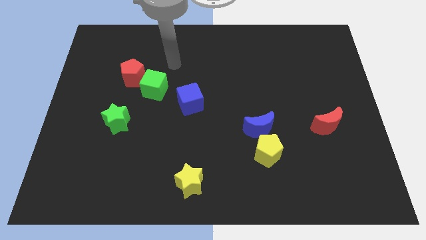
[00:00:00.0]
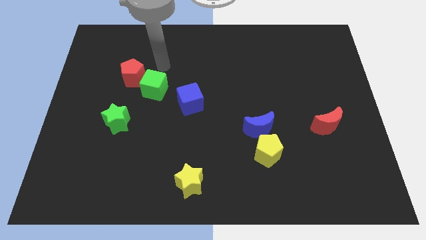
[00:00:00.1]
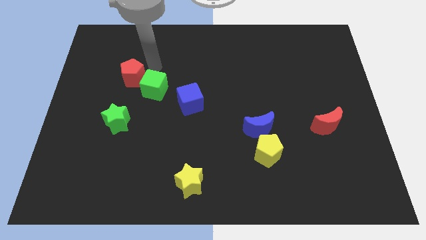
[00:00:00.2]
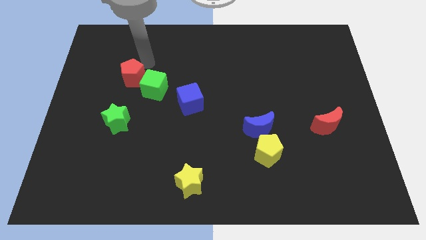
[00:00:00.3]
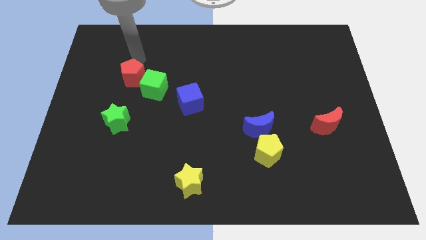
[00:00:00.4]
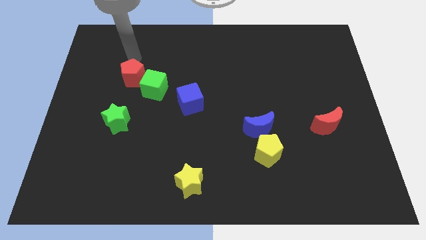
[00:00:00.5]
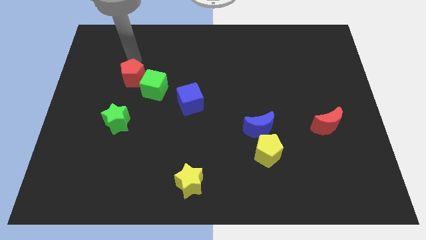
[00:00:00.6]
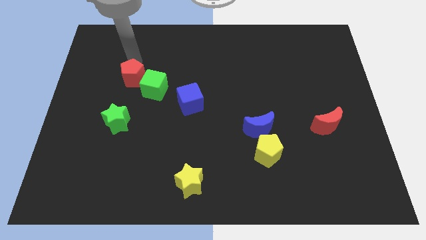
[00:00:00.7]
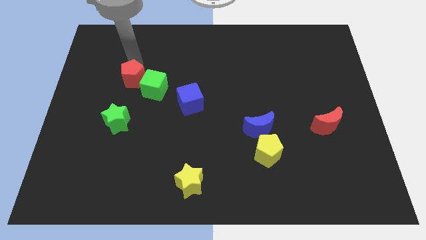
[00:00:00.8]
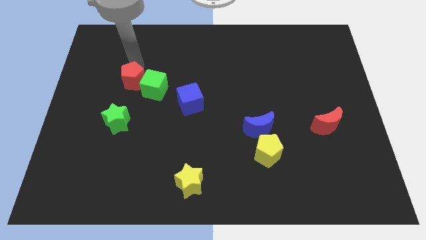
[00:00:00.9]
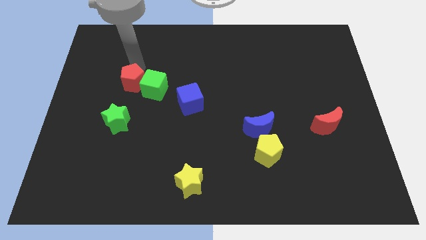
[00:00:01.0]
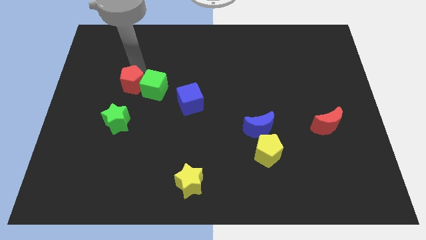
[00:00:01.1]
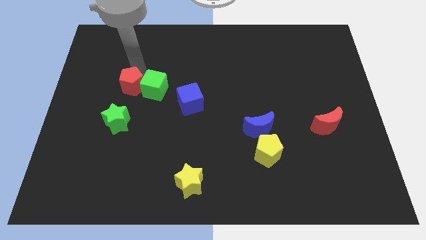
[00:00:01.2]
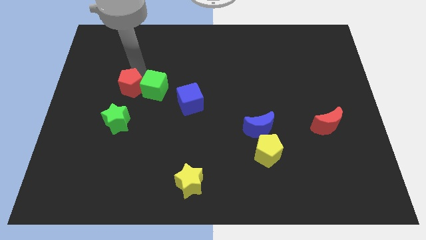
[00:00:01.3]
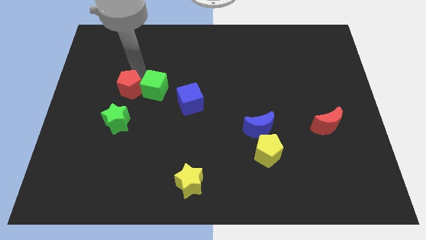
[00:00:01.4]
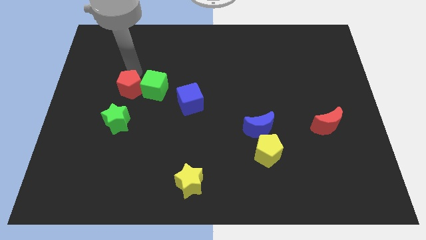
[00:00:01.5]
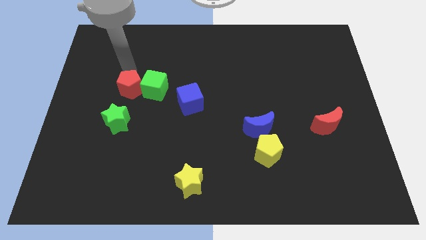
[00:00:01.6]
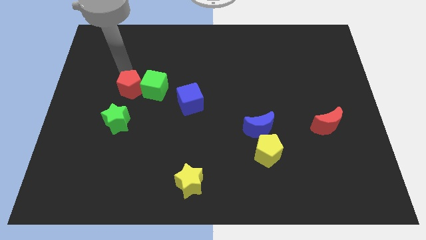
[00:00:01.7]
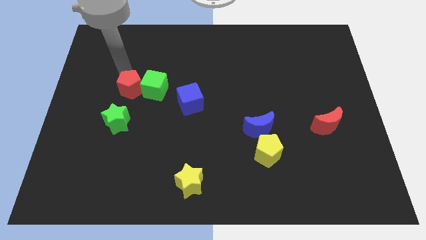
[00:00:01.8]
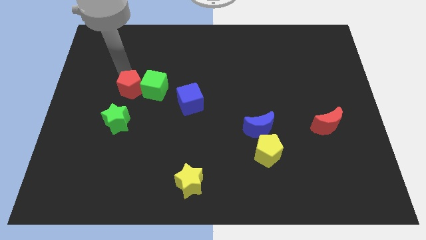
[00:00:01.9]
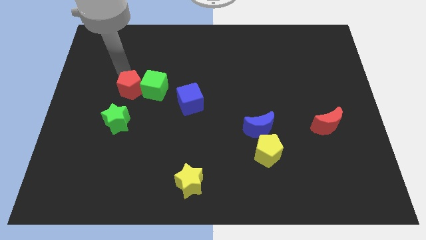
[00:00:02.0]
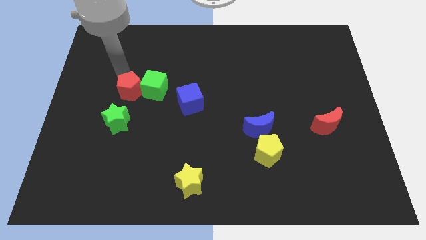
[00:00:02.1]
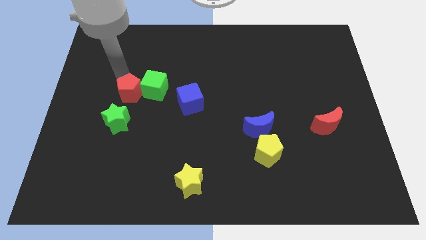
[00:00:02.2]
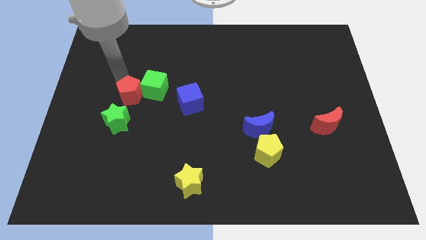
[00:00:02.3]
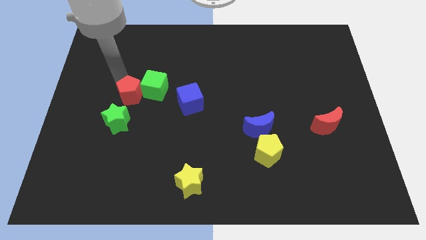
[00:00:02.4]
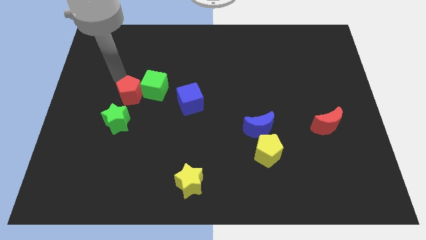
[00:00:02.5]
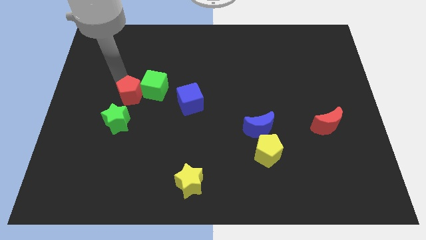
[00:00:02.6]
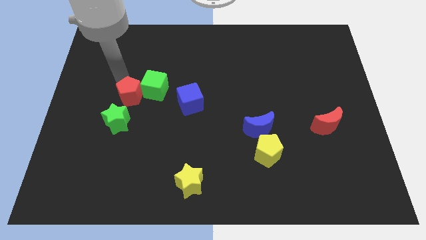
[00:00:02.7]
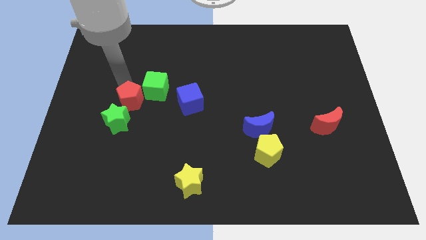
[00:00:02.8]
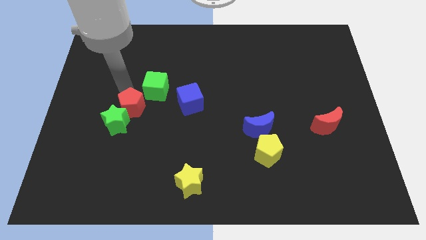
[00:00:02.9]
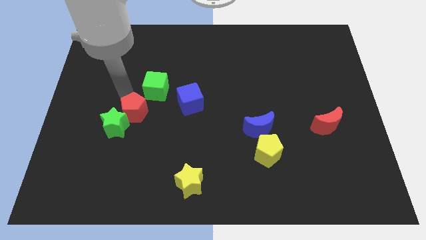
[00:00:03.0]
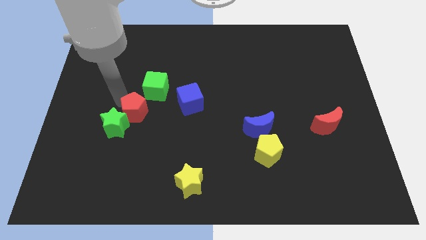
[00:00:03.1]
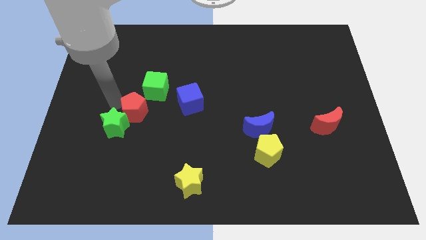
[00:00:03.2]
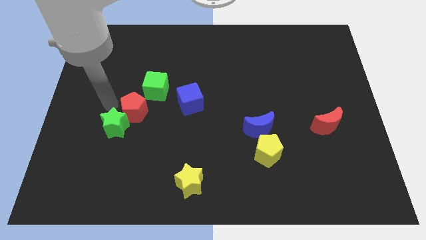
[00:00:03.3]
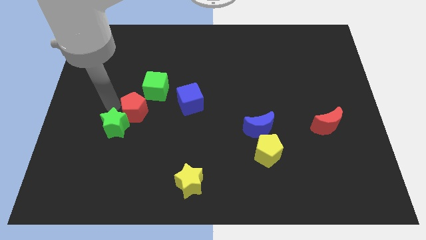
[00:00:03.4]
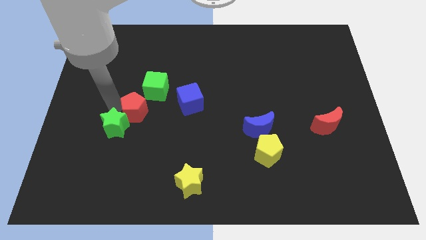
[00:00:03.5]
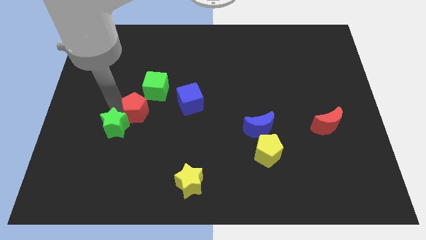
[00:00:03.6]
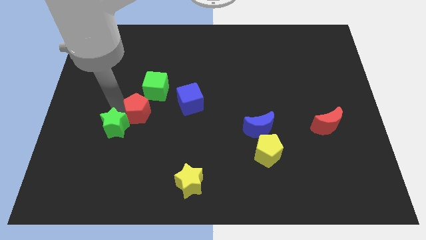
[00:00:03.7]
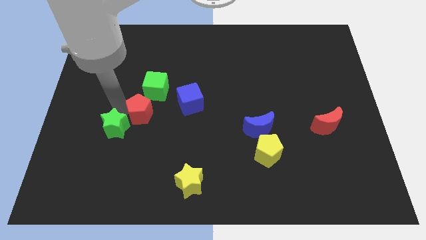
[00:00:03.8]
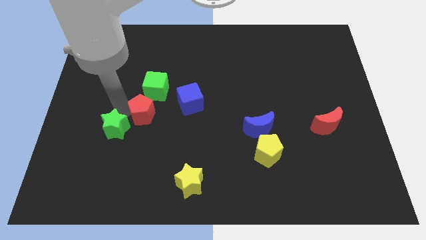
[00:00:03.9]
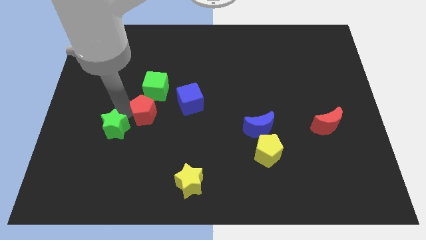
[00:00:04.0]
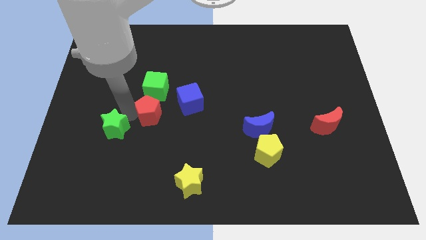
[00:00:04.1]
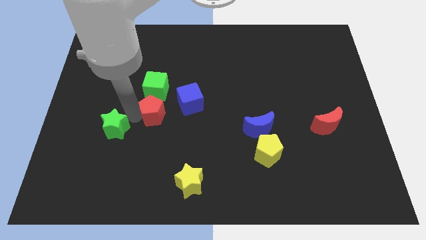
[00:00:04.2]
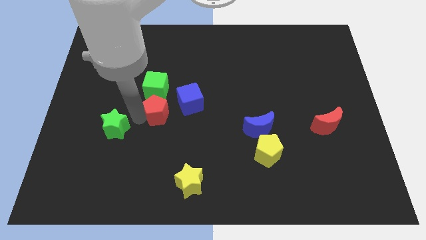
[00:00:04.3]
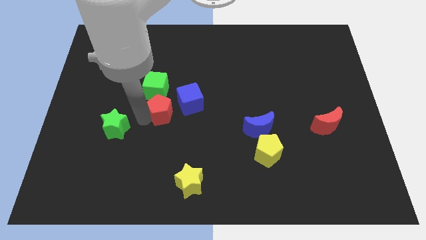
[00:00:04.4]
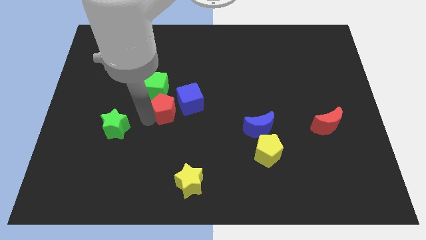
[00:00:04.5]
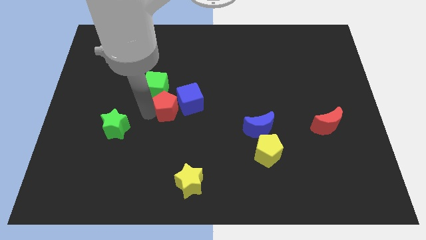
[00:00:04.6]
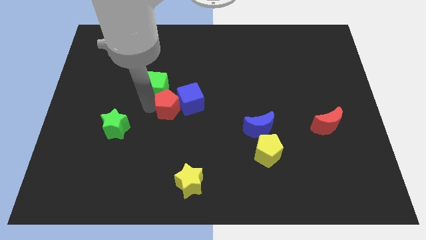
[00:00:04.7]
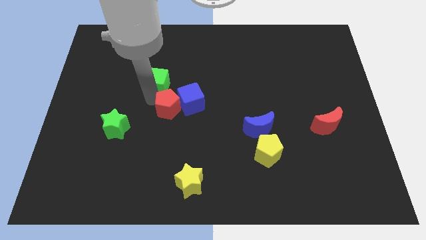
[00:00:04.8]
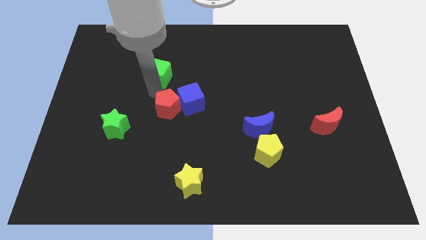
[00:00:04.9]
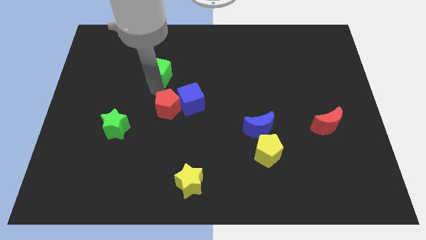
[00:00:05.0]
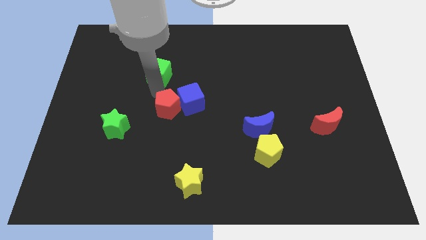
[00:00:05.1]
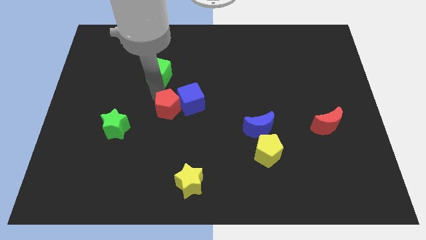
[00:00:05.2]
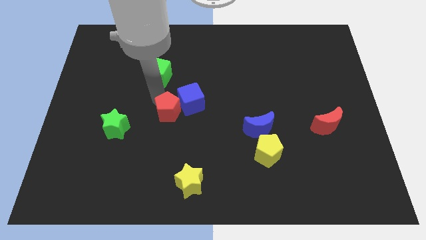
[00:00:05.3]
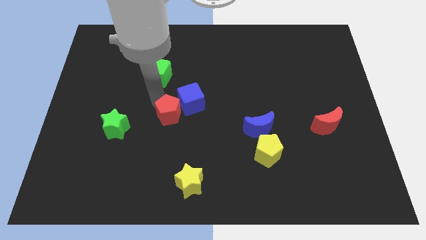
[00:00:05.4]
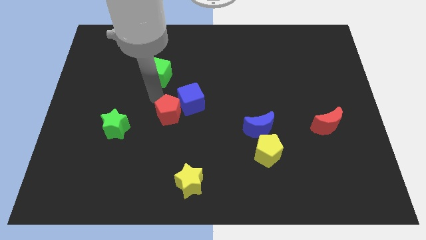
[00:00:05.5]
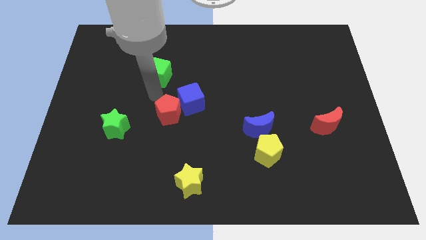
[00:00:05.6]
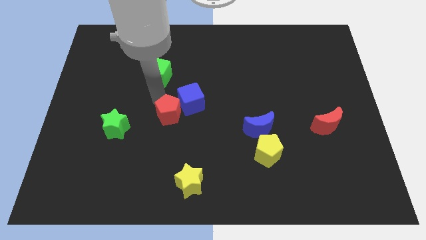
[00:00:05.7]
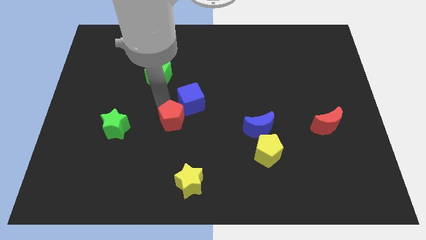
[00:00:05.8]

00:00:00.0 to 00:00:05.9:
push the red pentagon below the blue cube

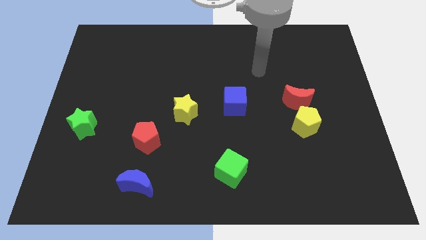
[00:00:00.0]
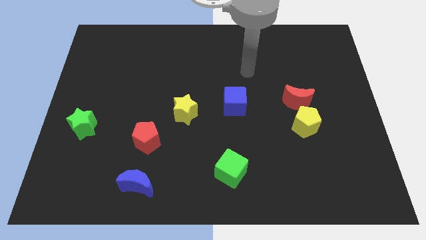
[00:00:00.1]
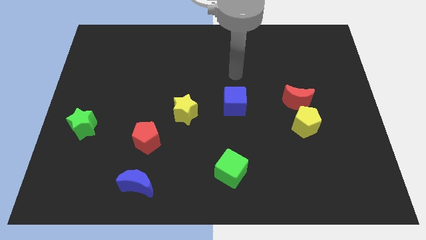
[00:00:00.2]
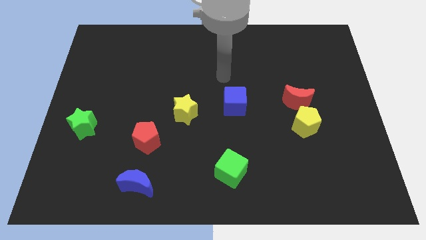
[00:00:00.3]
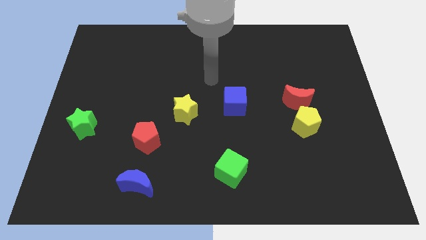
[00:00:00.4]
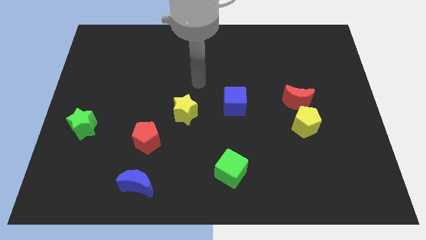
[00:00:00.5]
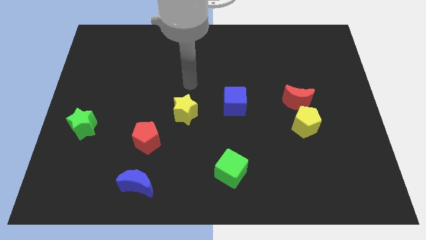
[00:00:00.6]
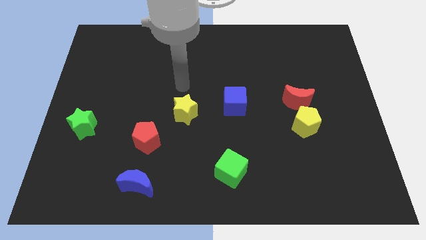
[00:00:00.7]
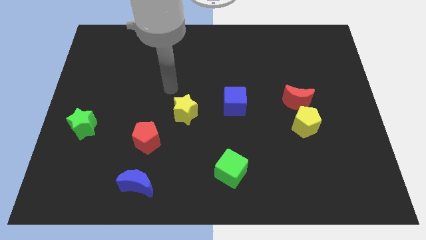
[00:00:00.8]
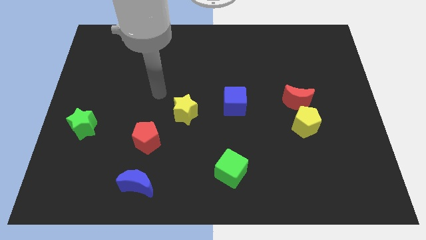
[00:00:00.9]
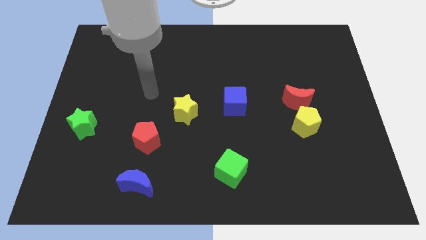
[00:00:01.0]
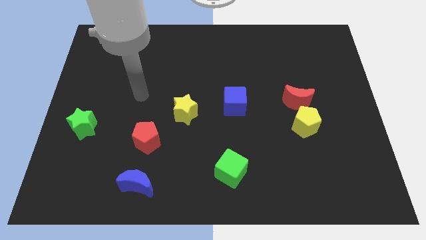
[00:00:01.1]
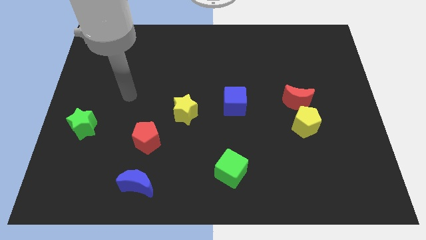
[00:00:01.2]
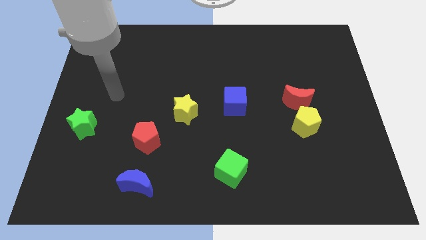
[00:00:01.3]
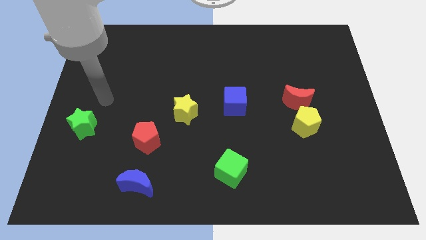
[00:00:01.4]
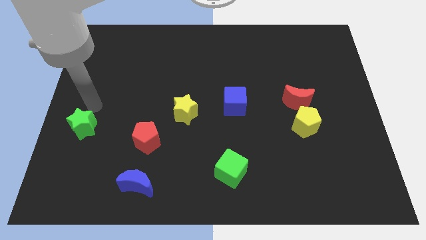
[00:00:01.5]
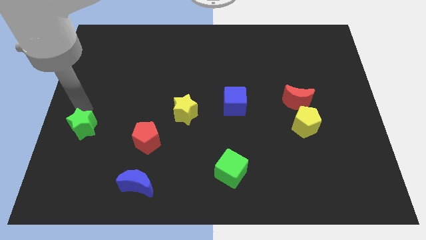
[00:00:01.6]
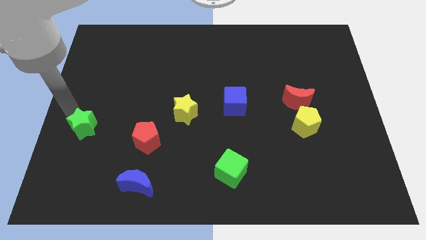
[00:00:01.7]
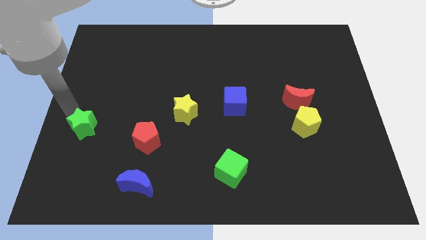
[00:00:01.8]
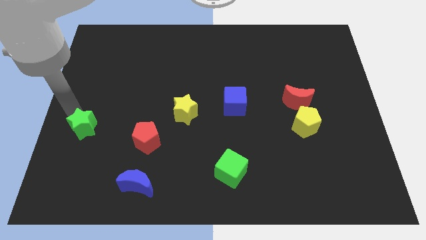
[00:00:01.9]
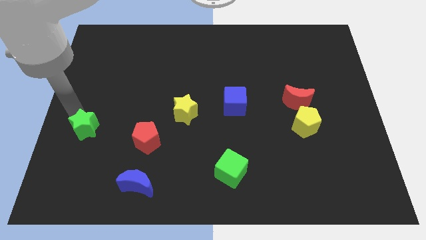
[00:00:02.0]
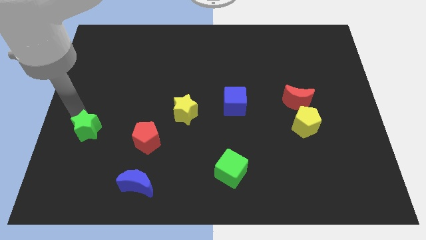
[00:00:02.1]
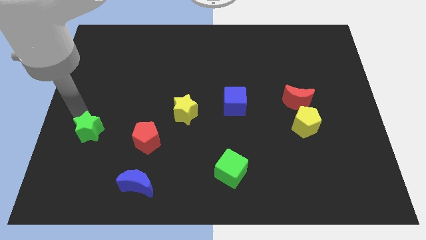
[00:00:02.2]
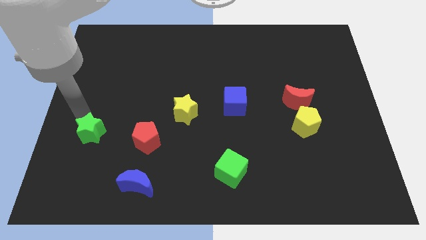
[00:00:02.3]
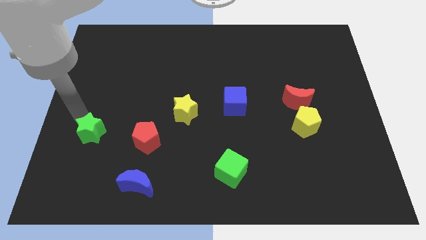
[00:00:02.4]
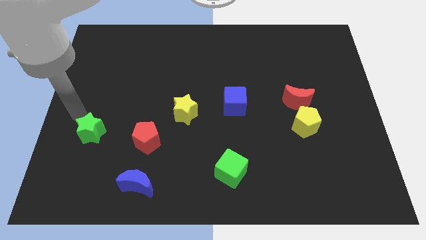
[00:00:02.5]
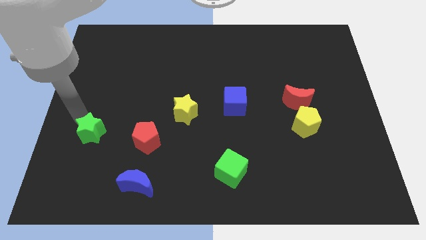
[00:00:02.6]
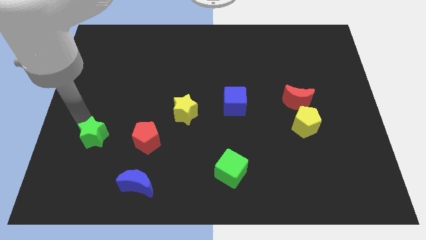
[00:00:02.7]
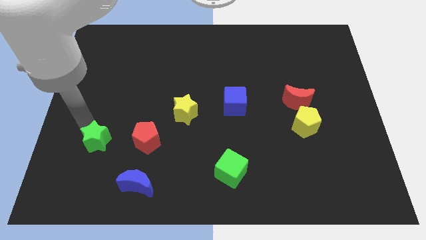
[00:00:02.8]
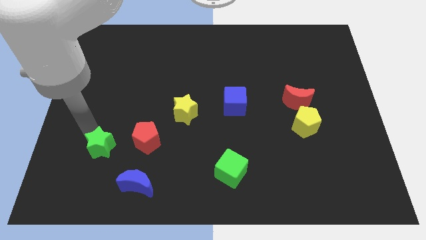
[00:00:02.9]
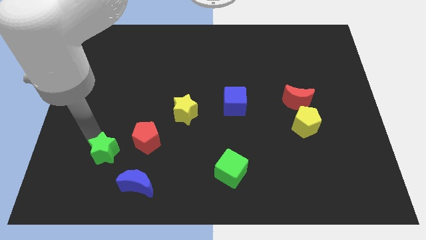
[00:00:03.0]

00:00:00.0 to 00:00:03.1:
slide the green star to the bottom left side of the red pentagon
